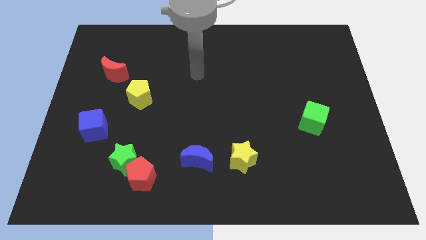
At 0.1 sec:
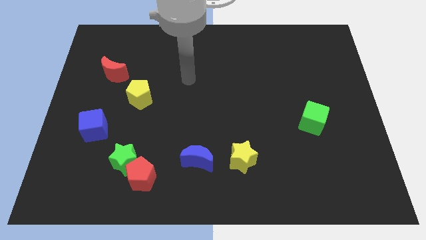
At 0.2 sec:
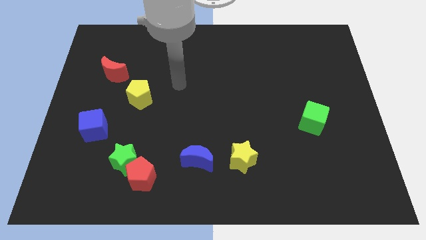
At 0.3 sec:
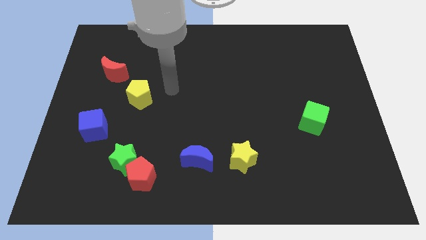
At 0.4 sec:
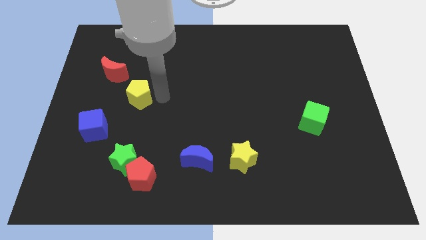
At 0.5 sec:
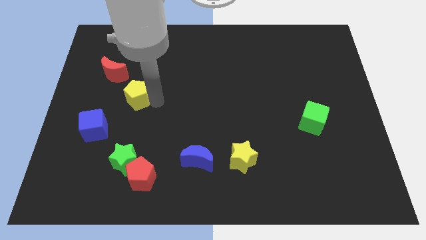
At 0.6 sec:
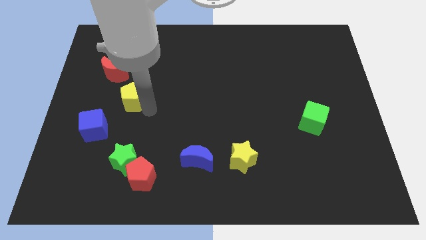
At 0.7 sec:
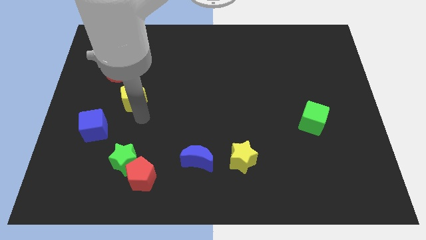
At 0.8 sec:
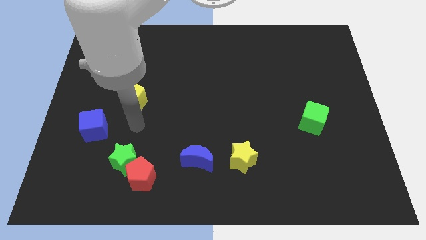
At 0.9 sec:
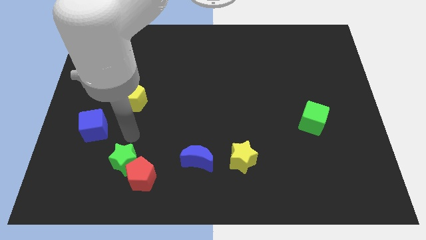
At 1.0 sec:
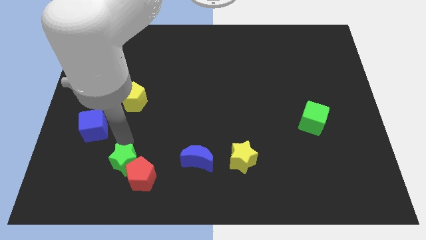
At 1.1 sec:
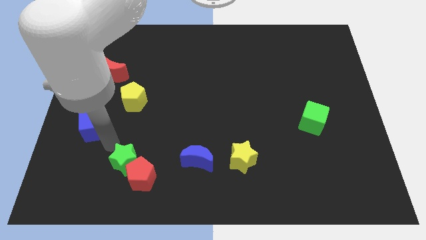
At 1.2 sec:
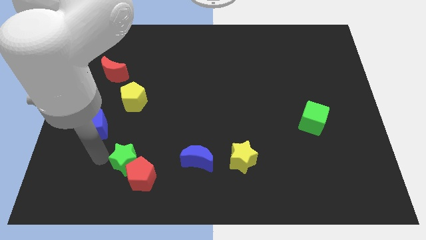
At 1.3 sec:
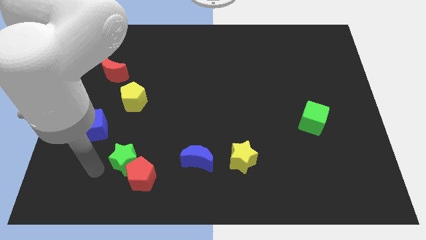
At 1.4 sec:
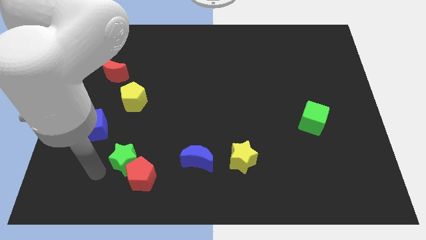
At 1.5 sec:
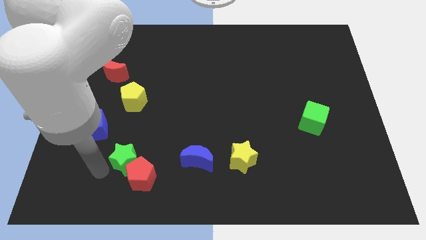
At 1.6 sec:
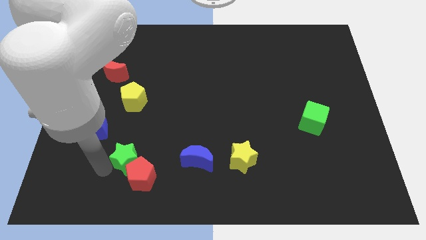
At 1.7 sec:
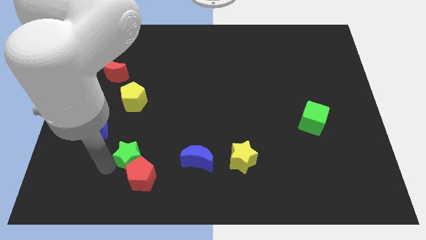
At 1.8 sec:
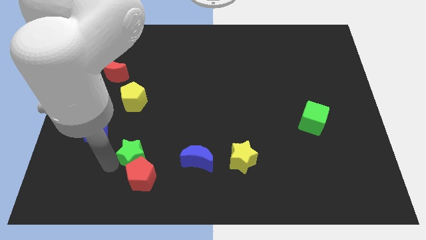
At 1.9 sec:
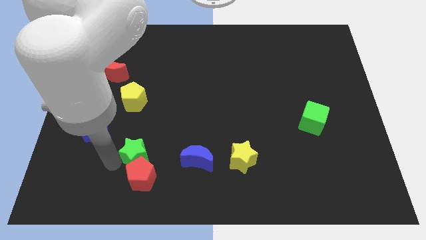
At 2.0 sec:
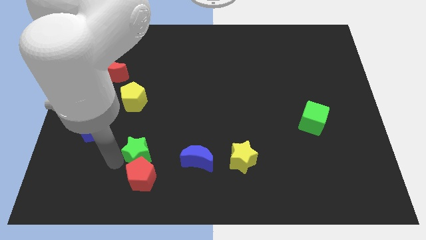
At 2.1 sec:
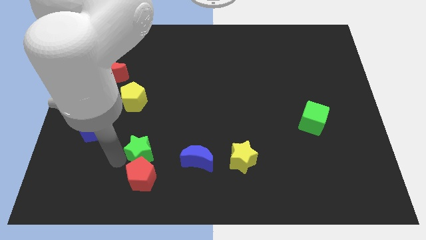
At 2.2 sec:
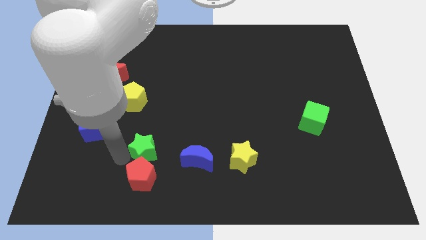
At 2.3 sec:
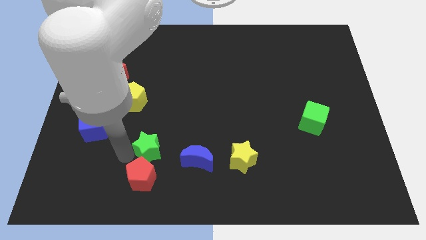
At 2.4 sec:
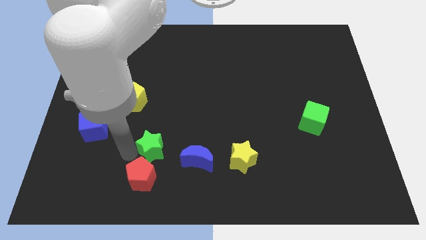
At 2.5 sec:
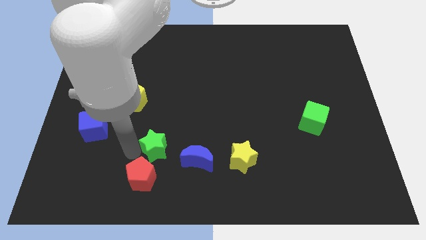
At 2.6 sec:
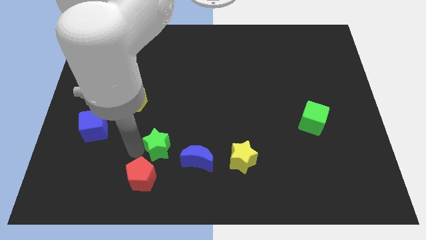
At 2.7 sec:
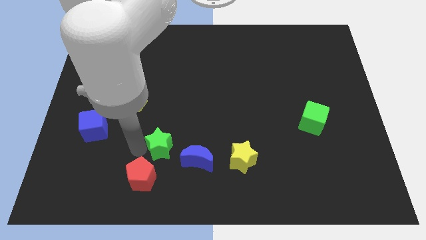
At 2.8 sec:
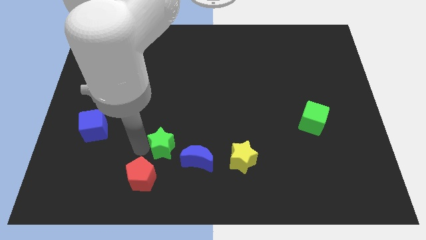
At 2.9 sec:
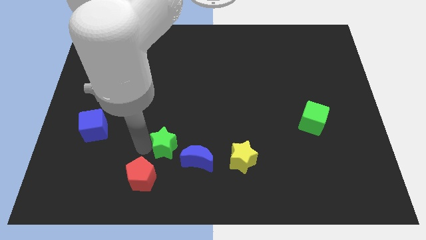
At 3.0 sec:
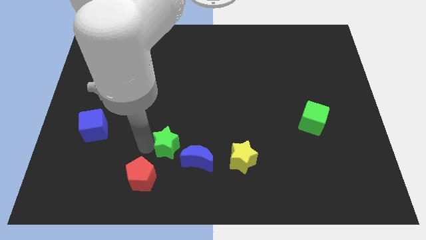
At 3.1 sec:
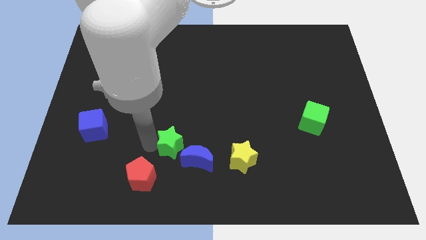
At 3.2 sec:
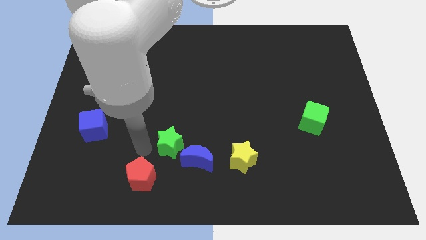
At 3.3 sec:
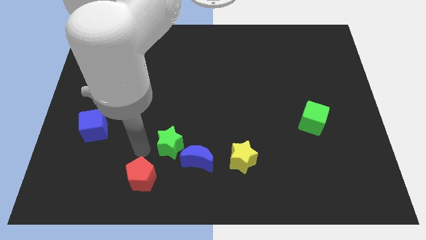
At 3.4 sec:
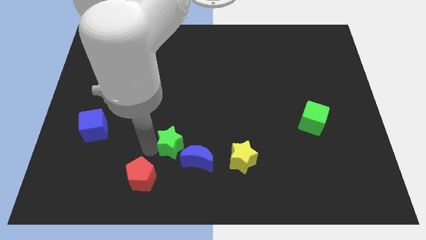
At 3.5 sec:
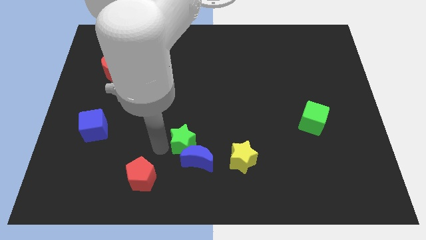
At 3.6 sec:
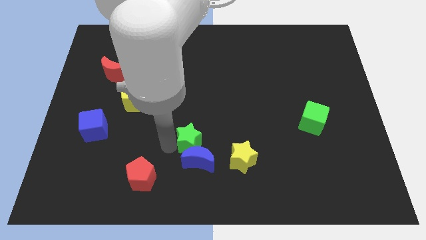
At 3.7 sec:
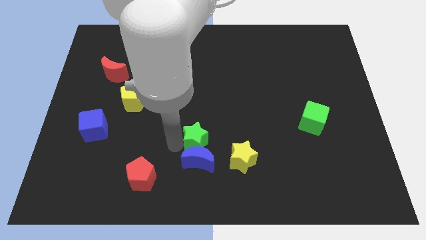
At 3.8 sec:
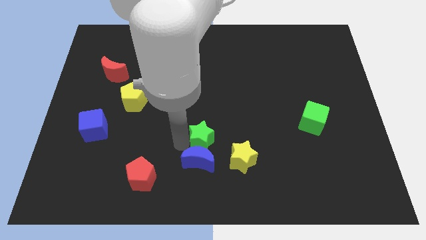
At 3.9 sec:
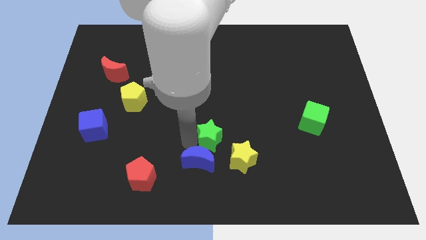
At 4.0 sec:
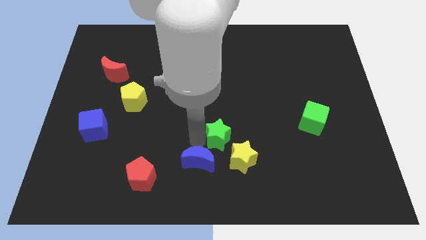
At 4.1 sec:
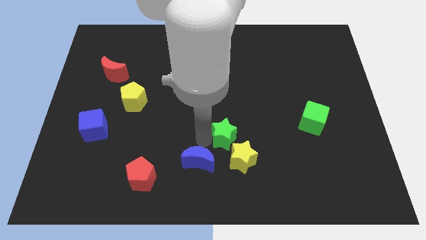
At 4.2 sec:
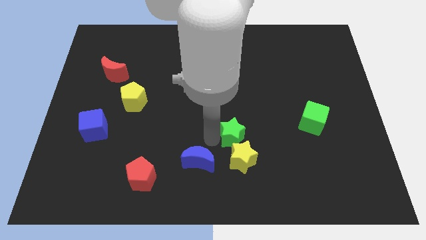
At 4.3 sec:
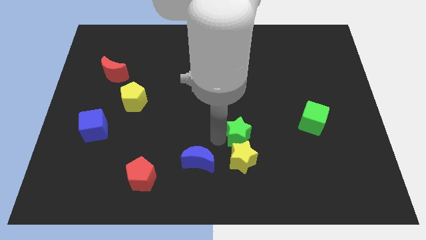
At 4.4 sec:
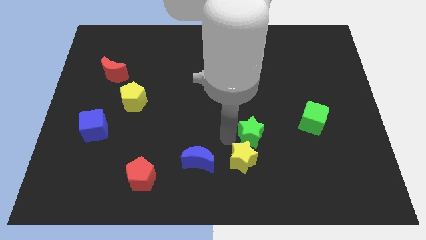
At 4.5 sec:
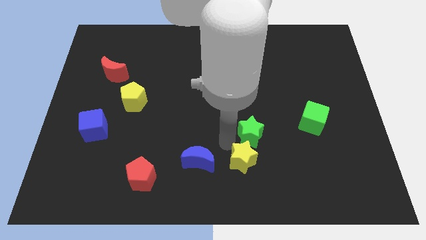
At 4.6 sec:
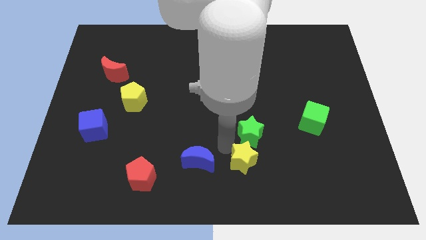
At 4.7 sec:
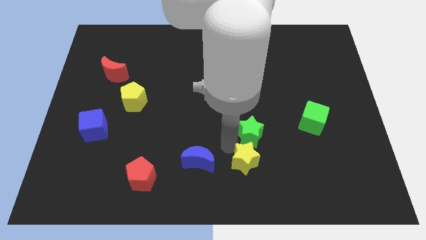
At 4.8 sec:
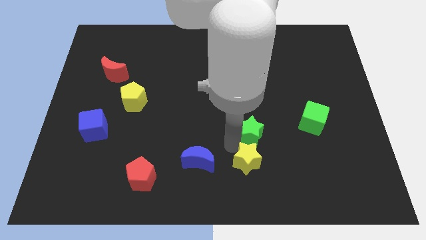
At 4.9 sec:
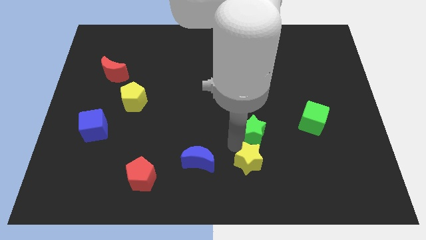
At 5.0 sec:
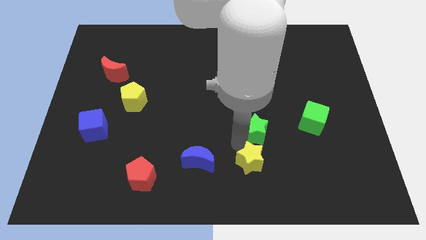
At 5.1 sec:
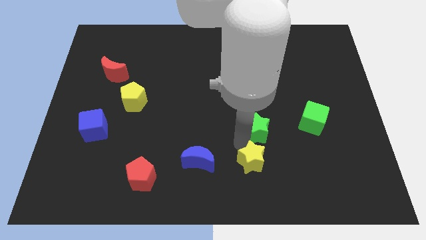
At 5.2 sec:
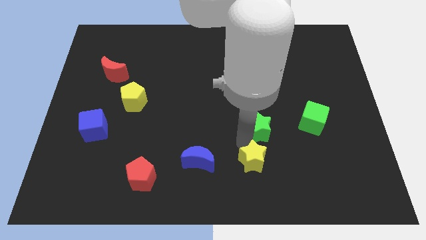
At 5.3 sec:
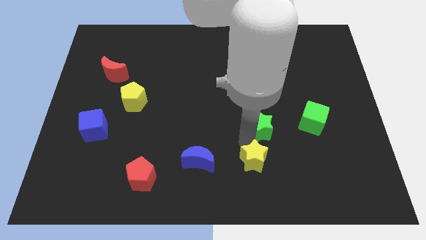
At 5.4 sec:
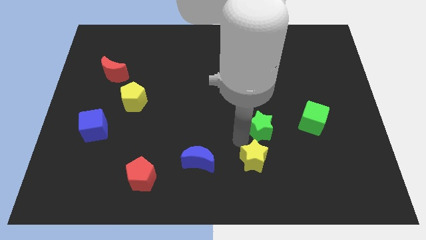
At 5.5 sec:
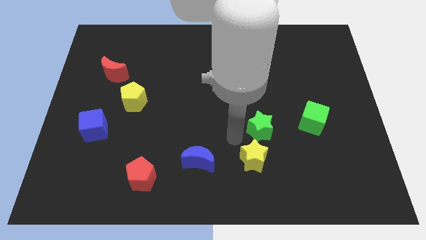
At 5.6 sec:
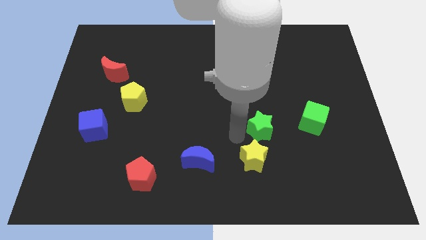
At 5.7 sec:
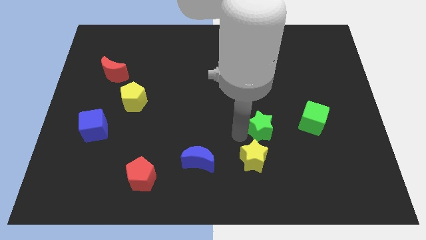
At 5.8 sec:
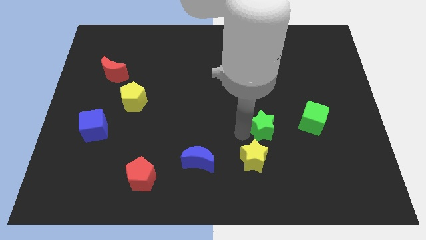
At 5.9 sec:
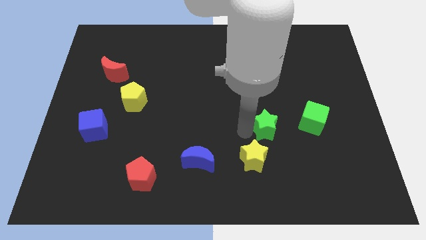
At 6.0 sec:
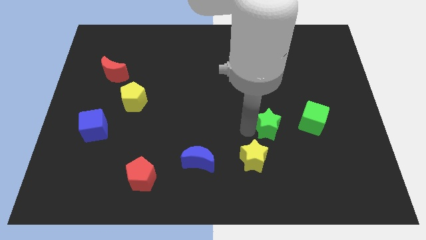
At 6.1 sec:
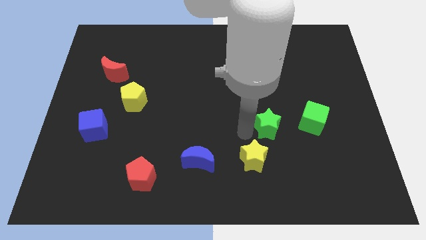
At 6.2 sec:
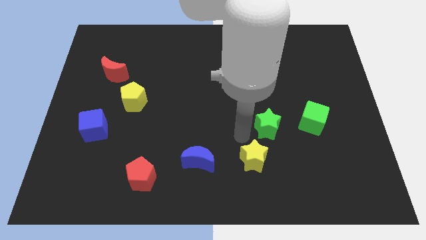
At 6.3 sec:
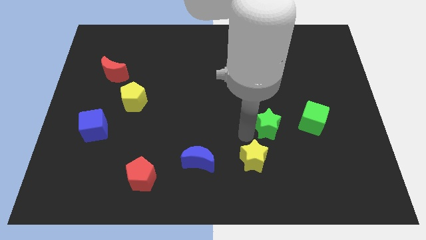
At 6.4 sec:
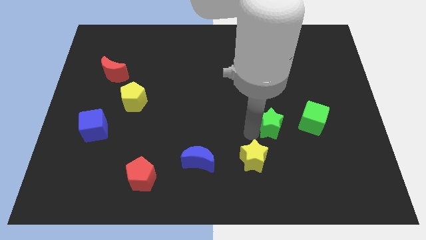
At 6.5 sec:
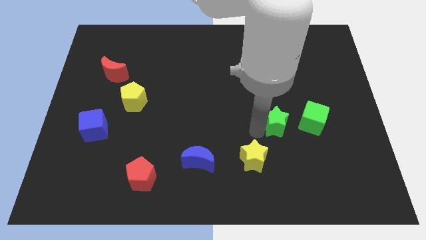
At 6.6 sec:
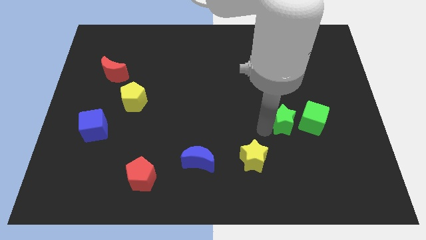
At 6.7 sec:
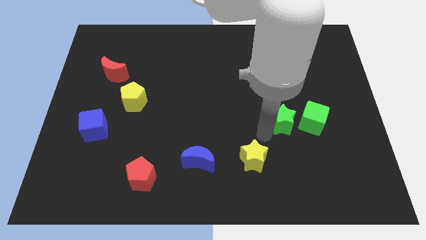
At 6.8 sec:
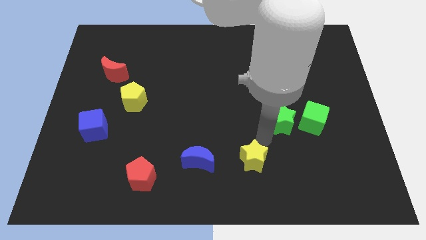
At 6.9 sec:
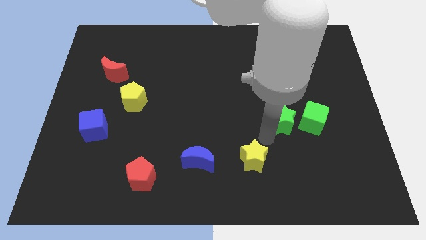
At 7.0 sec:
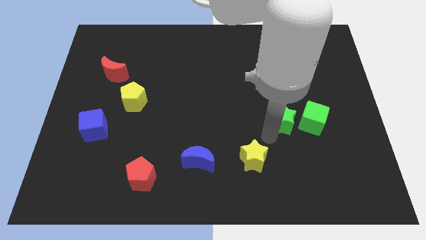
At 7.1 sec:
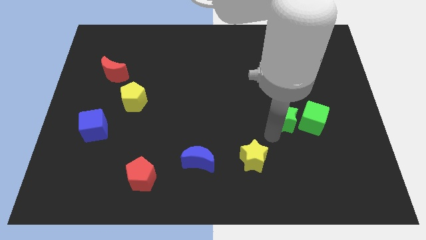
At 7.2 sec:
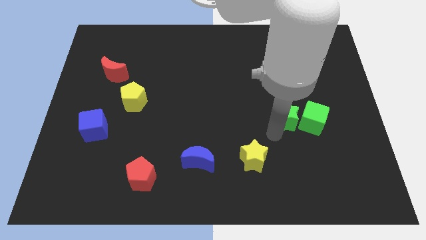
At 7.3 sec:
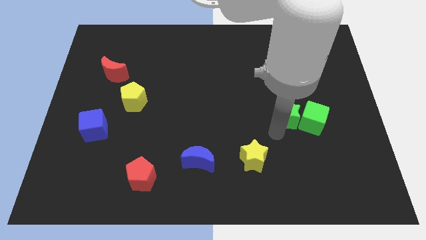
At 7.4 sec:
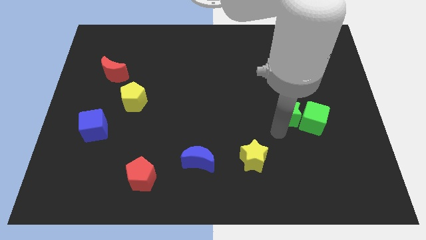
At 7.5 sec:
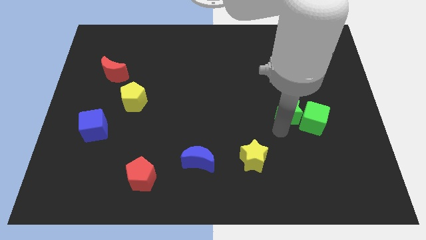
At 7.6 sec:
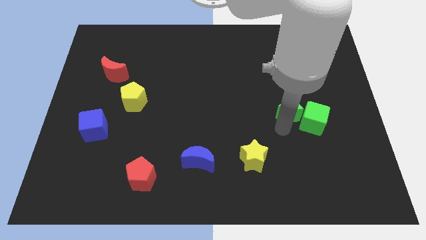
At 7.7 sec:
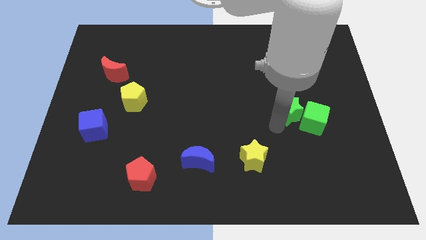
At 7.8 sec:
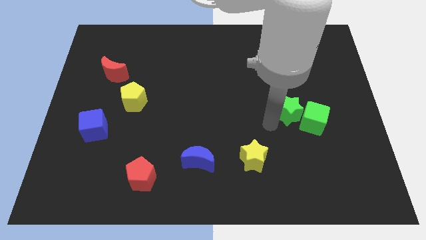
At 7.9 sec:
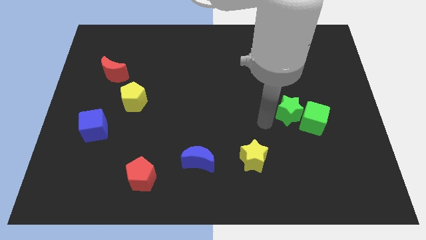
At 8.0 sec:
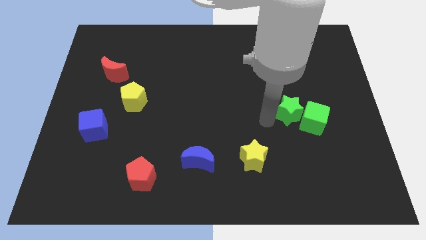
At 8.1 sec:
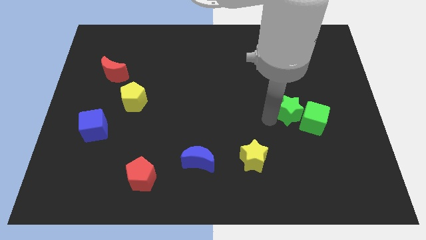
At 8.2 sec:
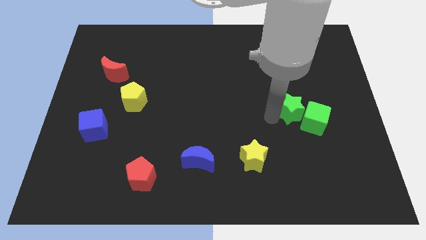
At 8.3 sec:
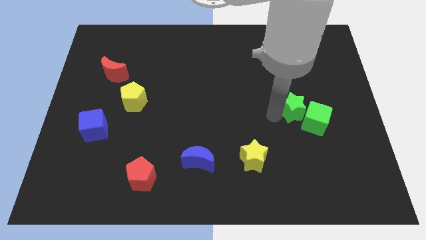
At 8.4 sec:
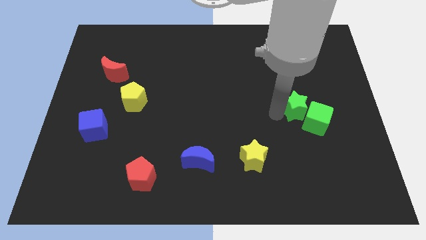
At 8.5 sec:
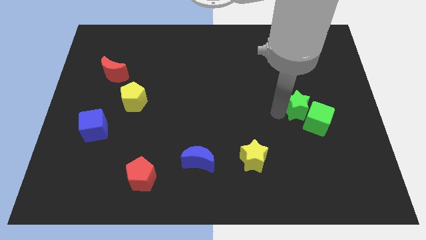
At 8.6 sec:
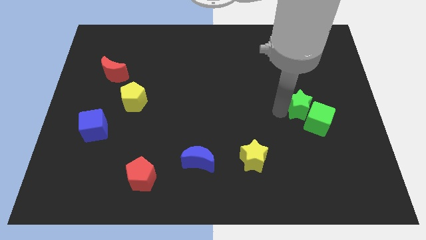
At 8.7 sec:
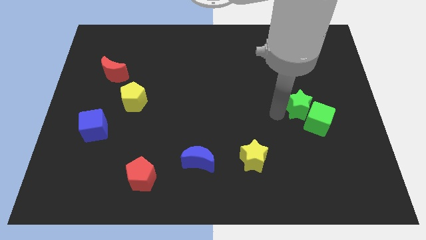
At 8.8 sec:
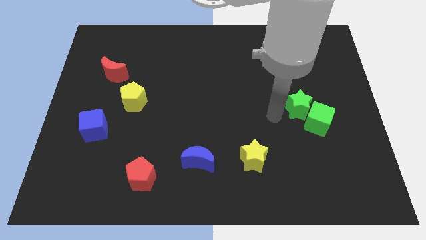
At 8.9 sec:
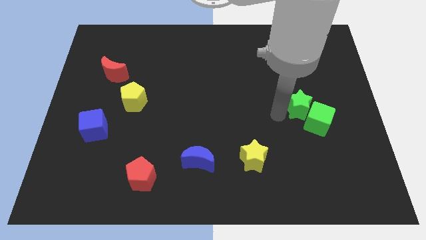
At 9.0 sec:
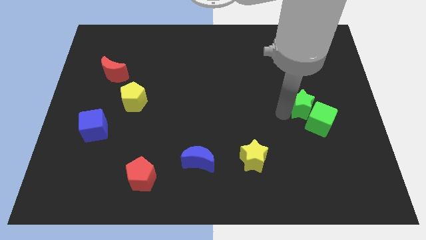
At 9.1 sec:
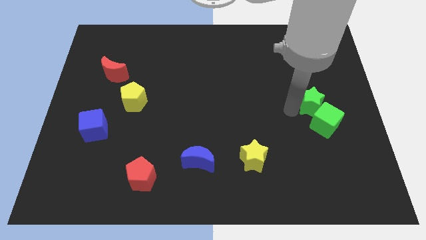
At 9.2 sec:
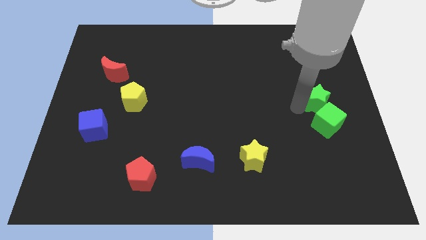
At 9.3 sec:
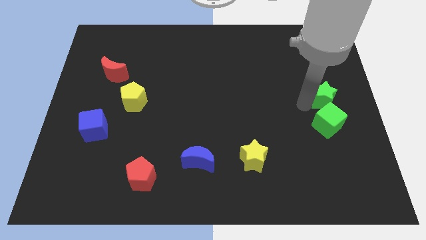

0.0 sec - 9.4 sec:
put the green star to the top right of the green cube
